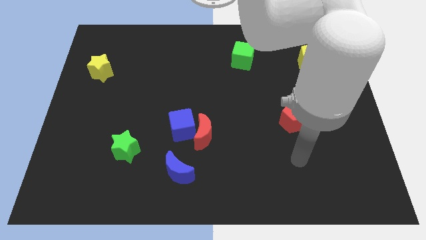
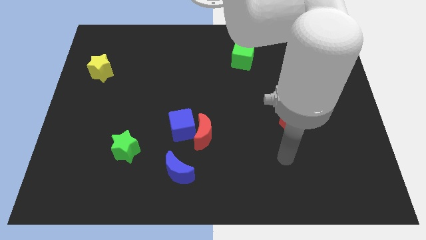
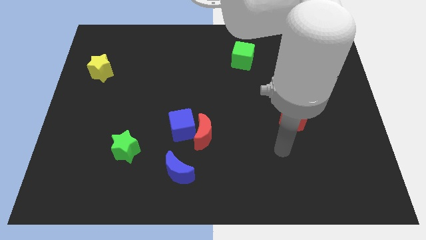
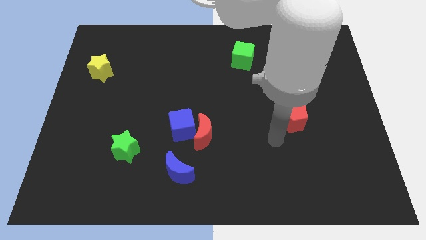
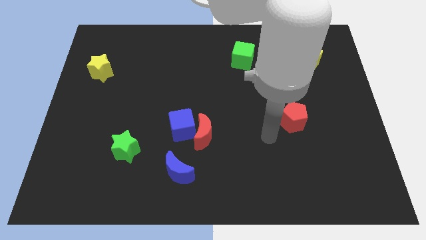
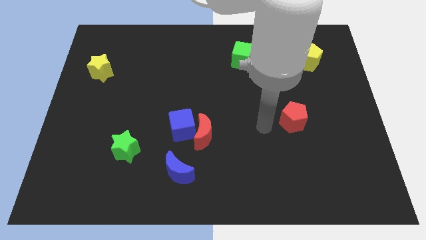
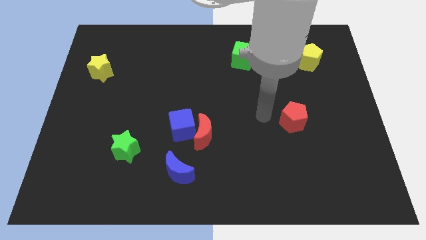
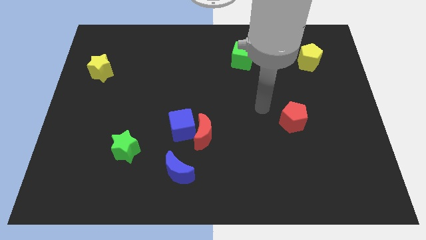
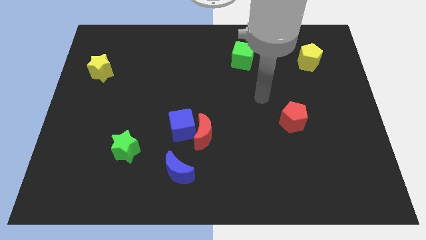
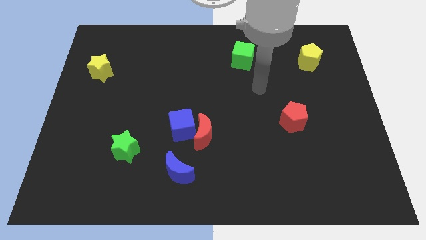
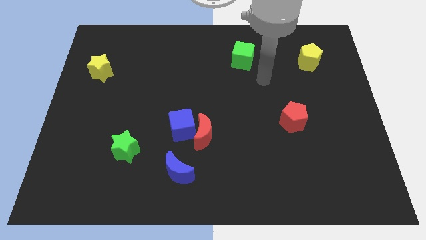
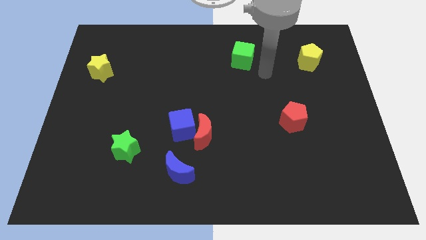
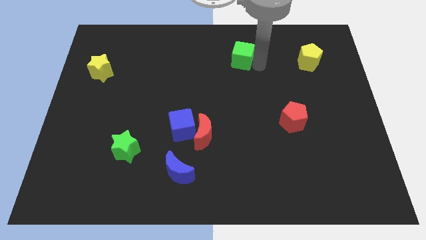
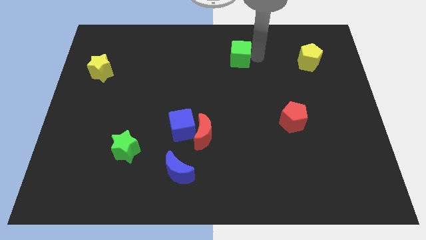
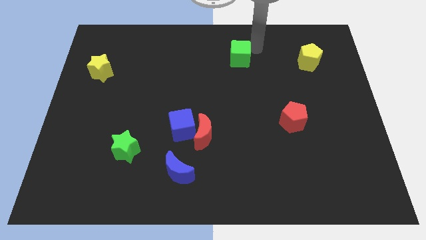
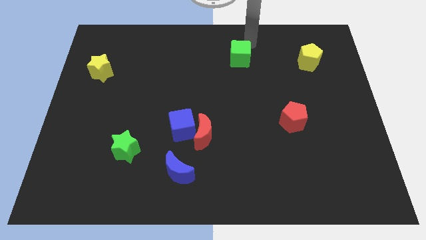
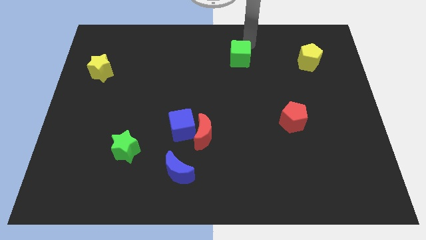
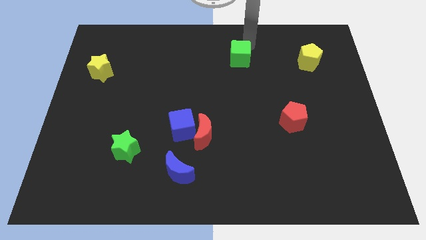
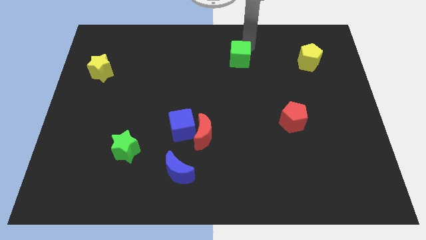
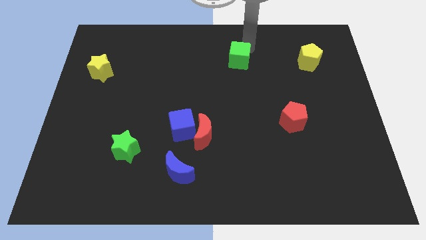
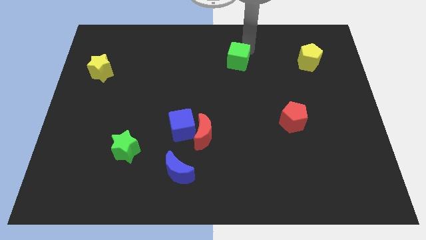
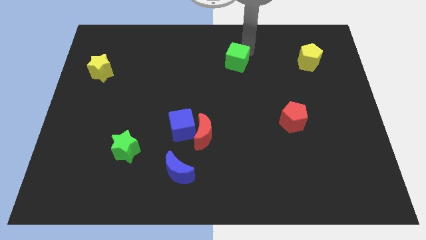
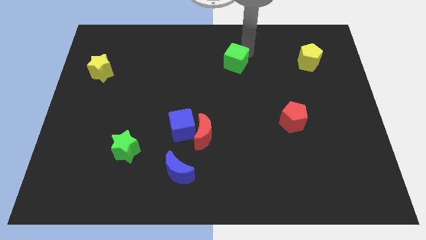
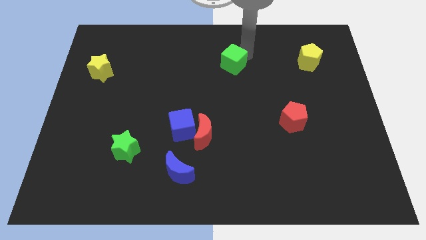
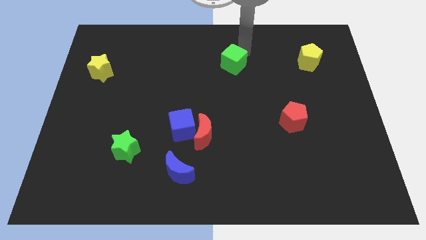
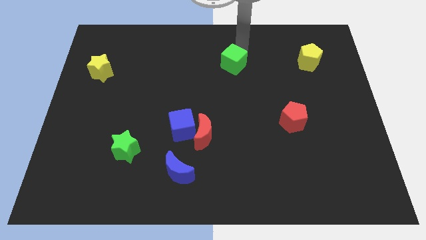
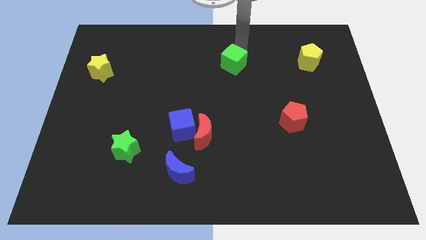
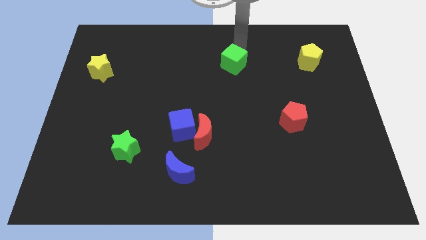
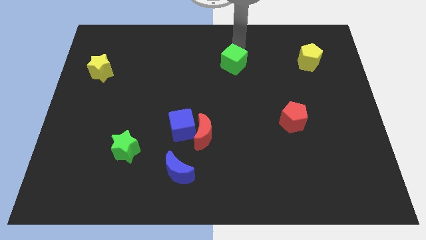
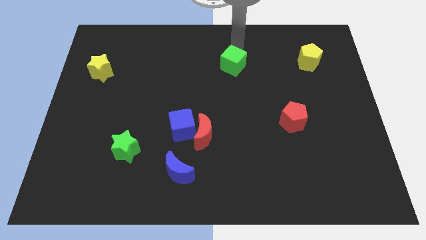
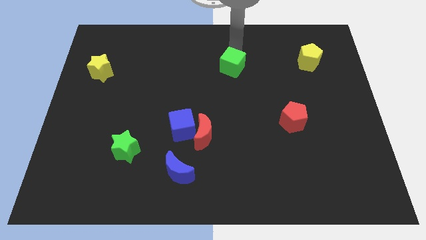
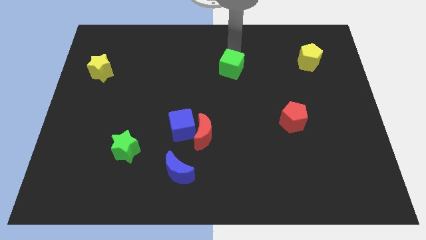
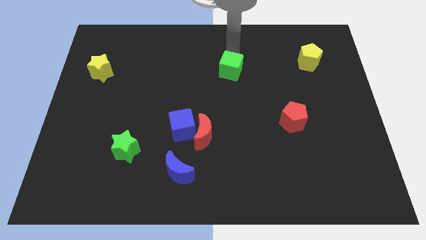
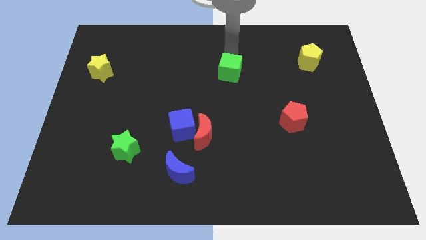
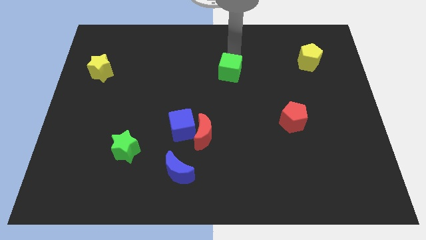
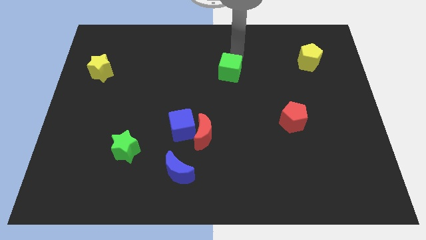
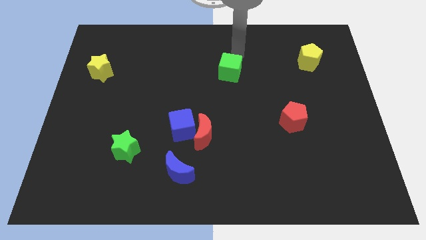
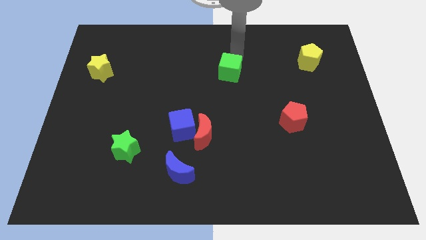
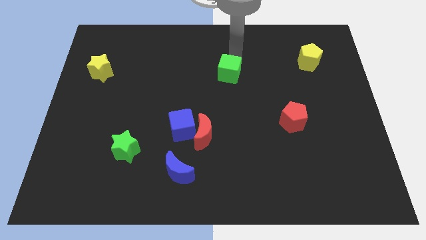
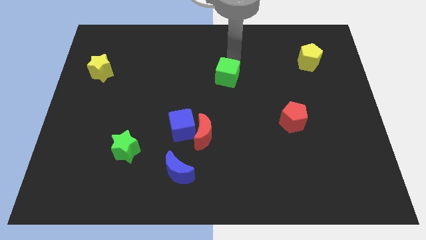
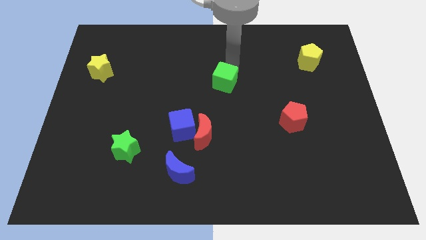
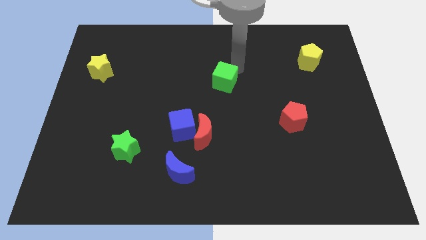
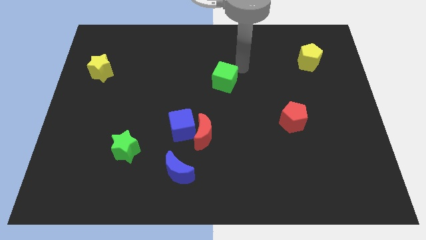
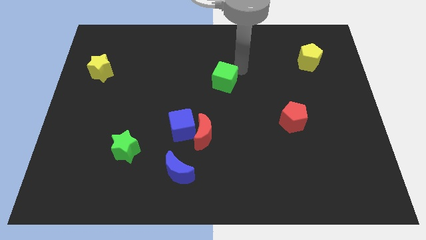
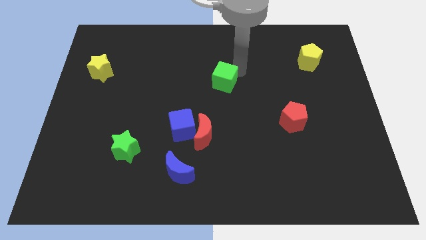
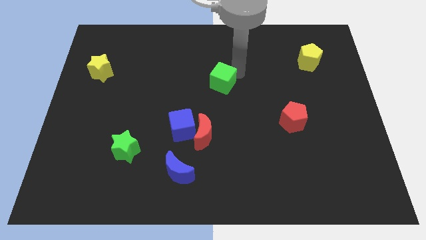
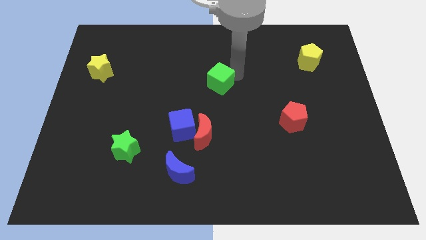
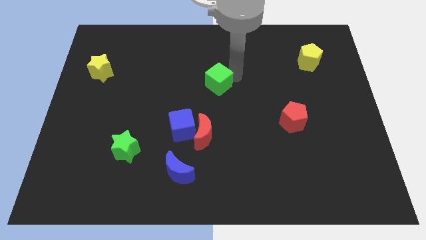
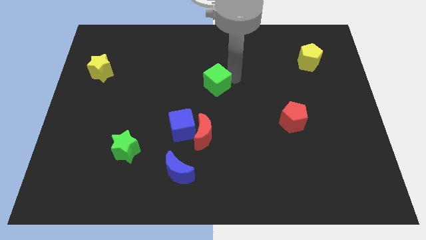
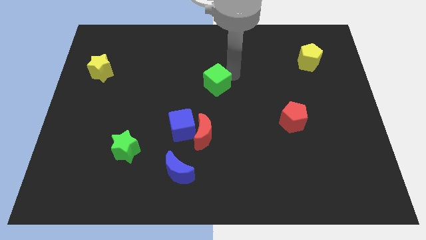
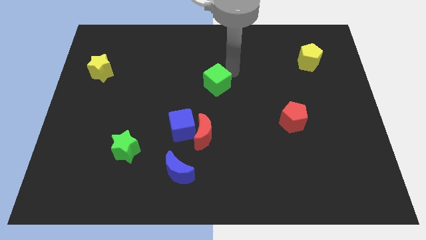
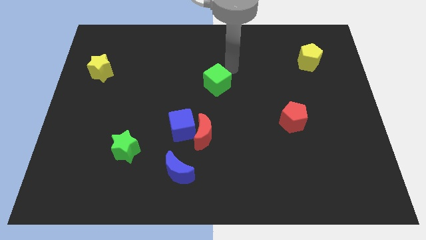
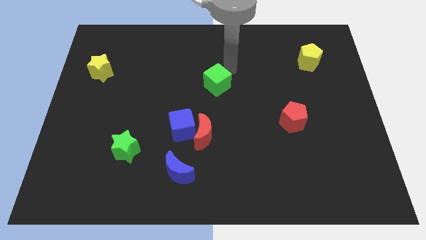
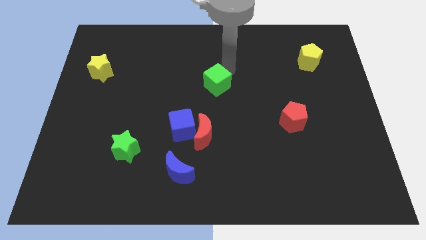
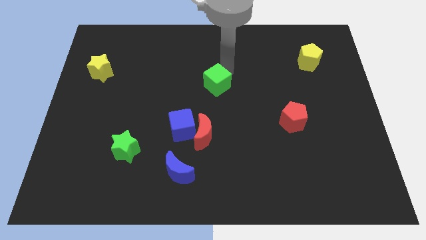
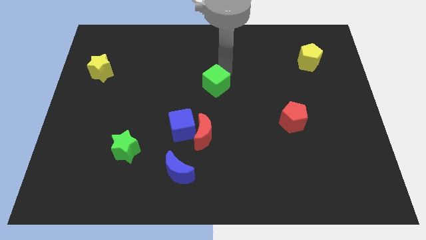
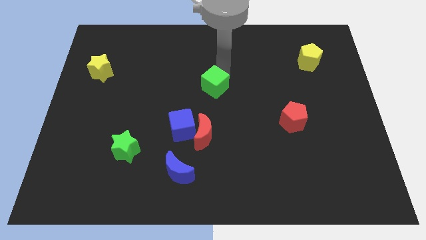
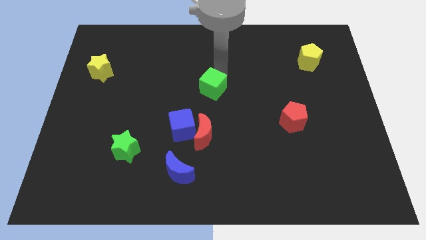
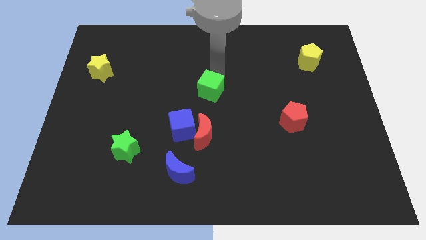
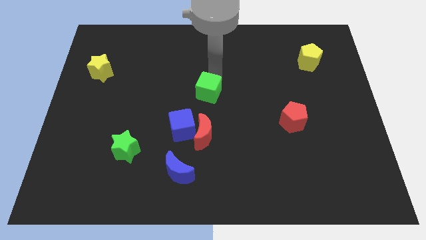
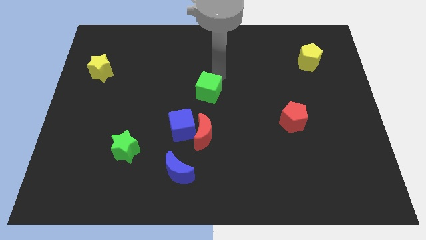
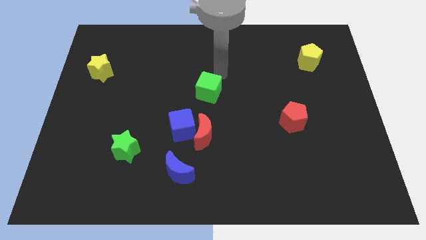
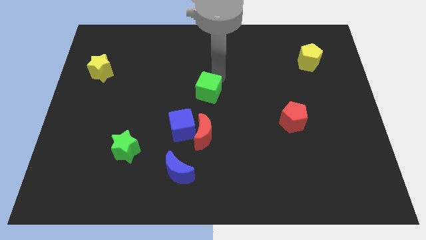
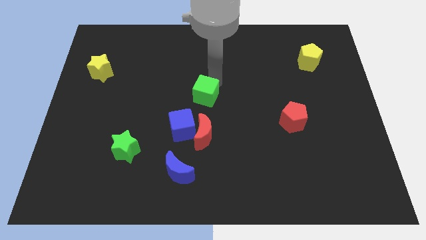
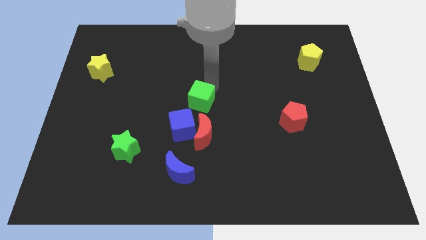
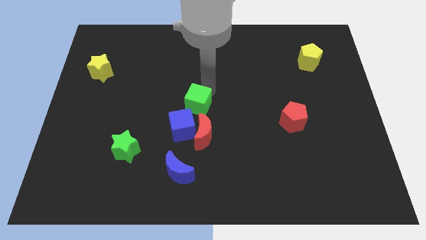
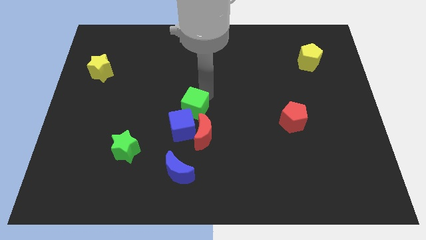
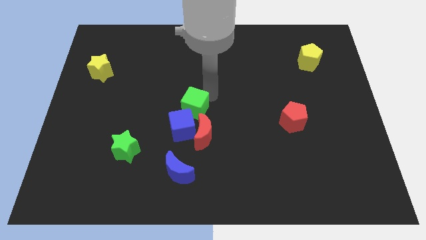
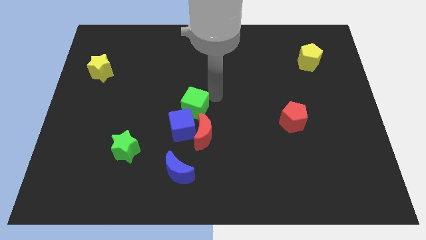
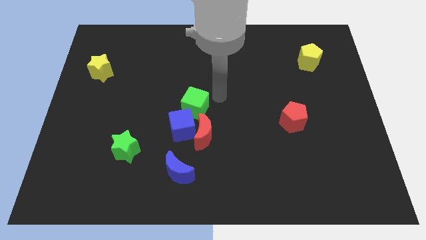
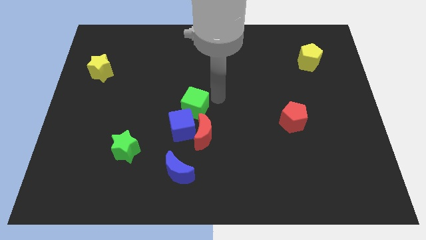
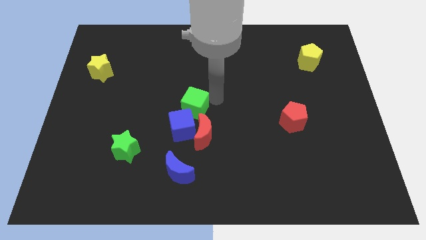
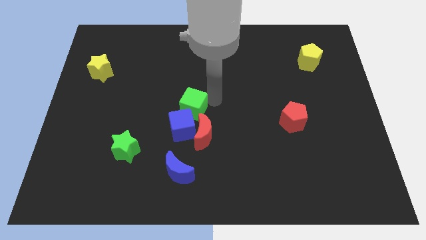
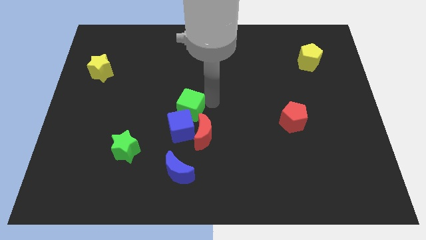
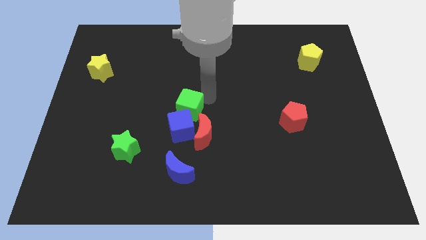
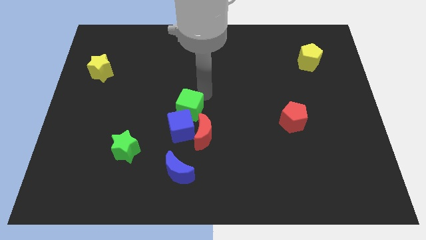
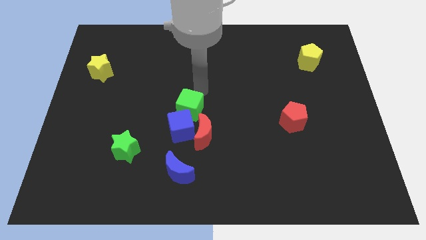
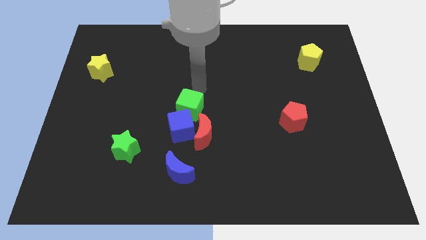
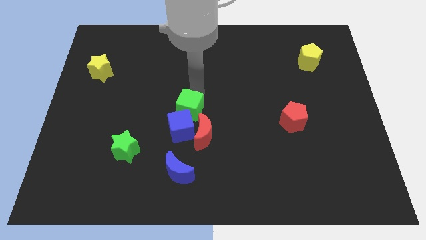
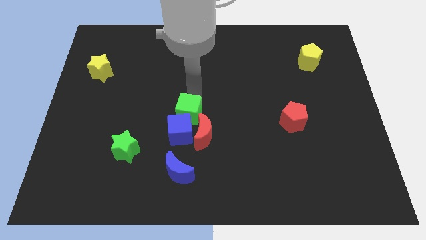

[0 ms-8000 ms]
move the green cube to the top side of the blue moon
